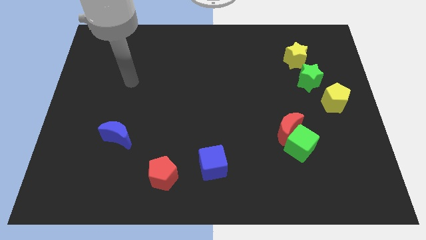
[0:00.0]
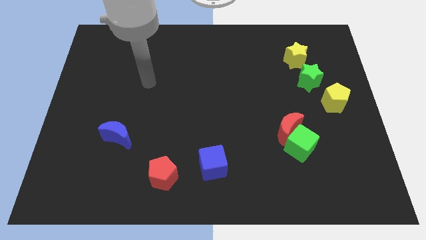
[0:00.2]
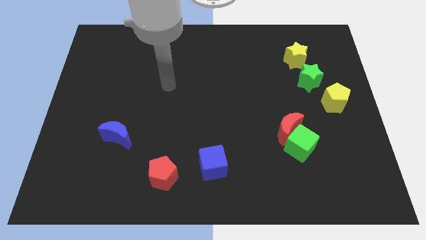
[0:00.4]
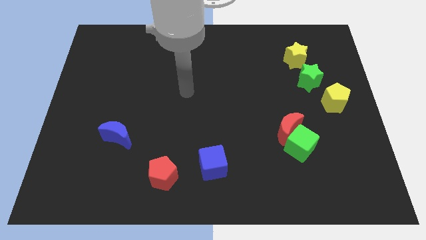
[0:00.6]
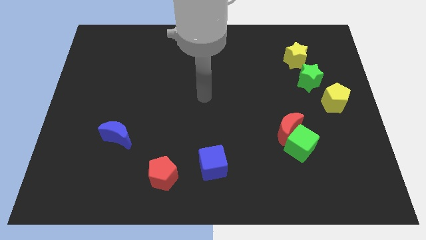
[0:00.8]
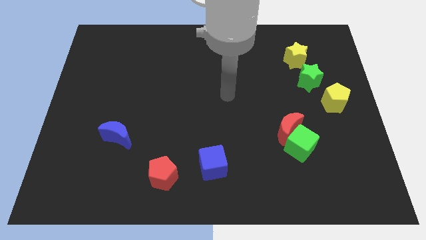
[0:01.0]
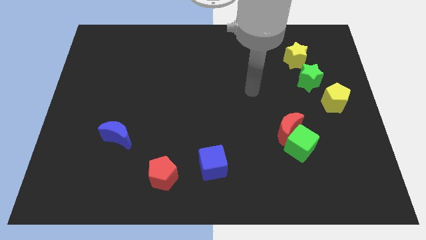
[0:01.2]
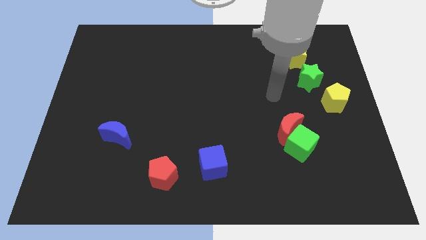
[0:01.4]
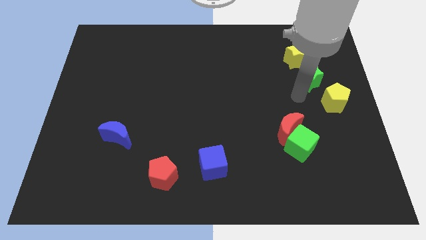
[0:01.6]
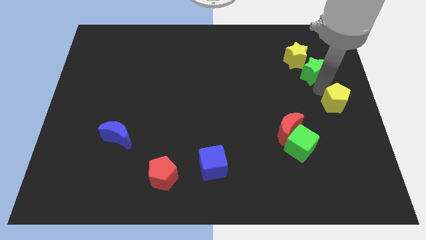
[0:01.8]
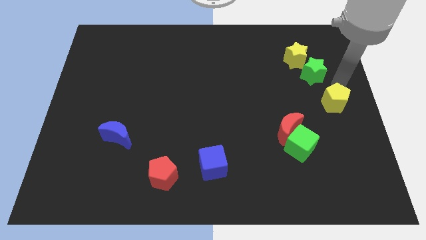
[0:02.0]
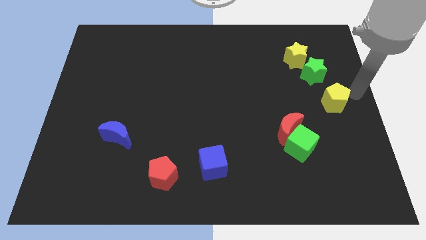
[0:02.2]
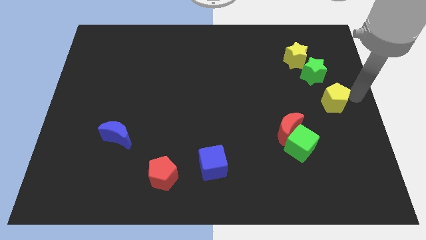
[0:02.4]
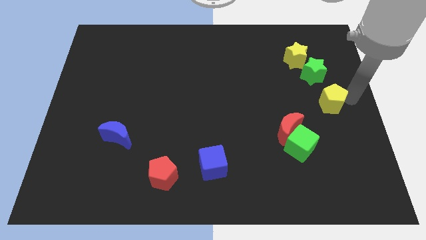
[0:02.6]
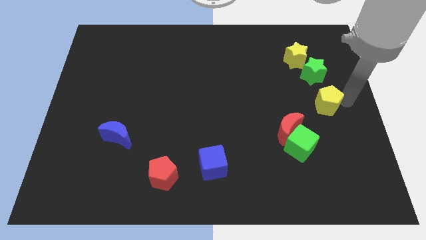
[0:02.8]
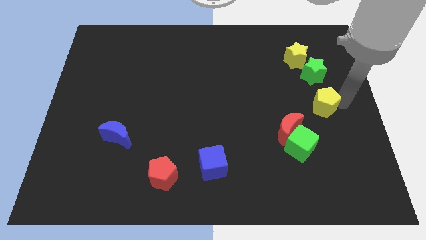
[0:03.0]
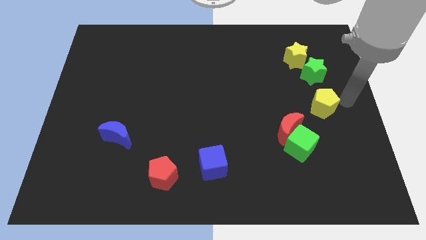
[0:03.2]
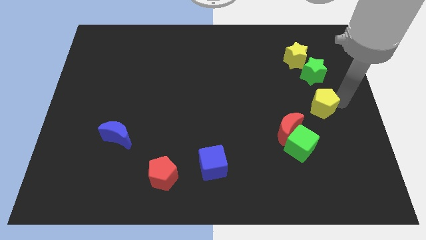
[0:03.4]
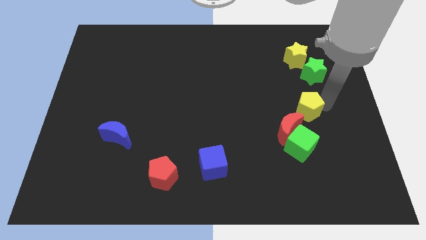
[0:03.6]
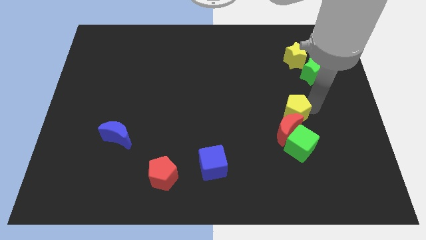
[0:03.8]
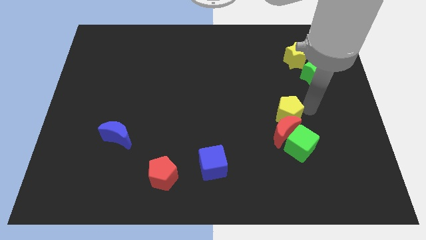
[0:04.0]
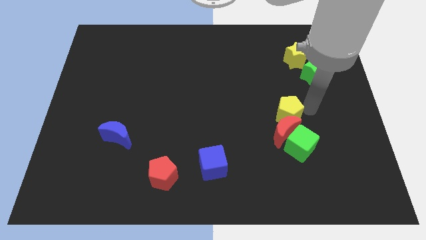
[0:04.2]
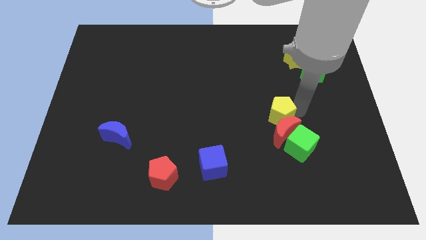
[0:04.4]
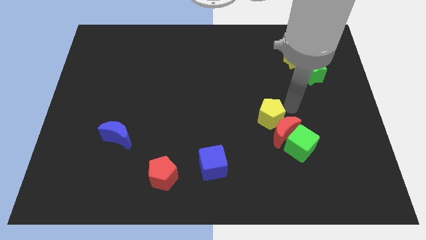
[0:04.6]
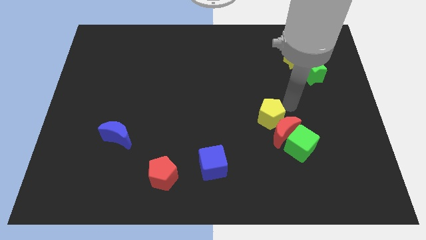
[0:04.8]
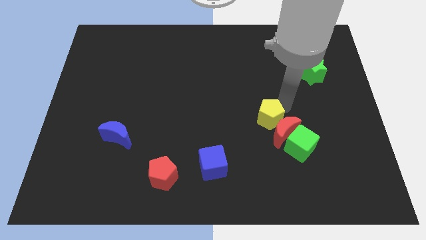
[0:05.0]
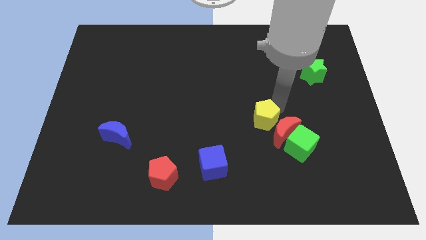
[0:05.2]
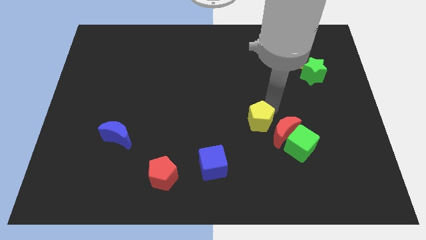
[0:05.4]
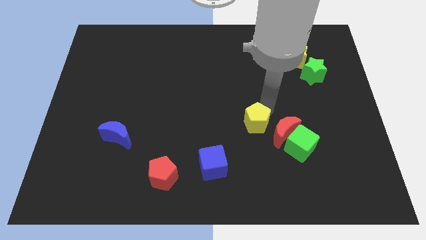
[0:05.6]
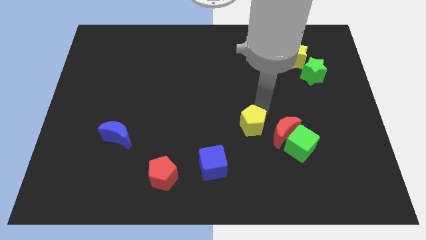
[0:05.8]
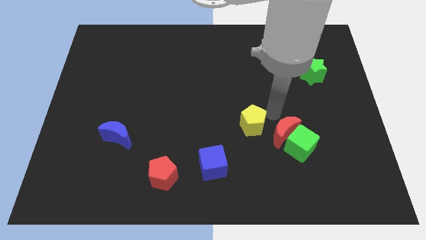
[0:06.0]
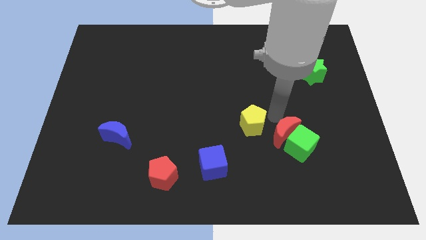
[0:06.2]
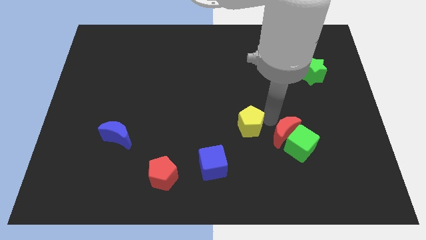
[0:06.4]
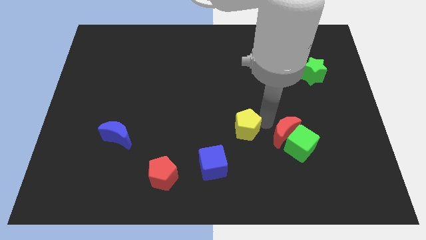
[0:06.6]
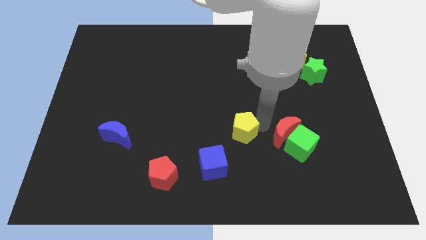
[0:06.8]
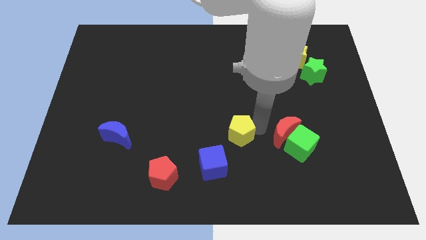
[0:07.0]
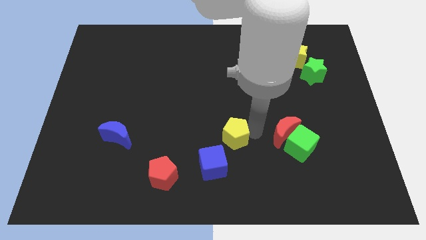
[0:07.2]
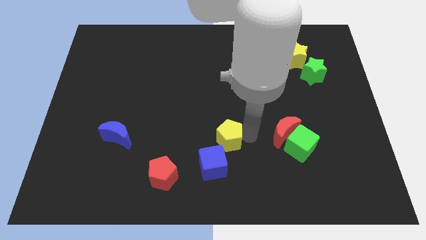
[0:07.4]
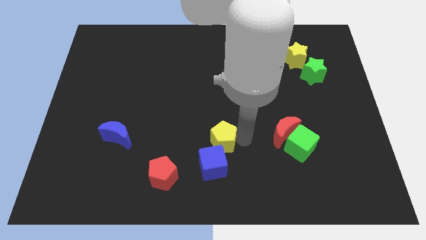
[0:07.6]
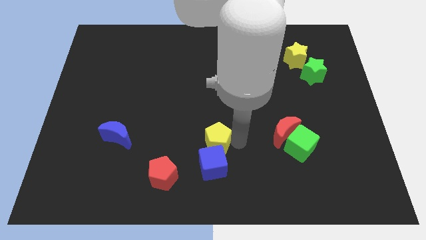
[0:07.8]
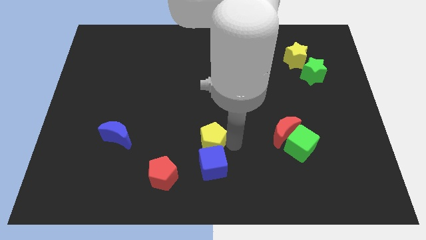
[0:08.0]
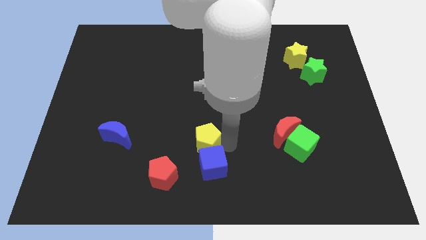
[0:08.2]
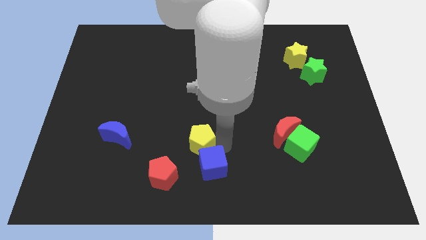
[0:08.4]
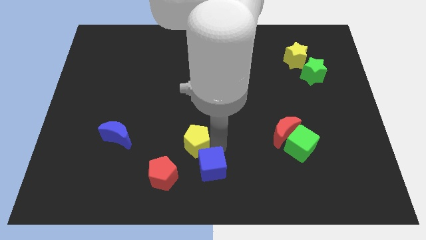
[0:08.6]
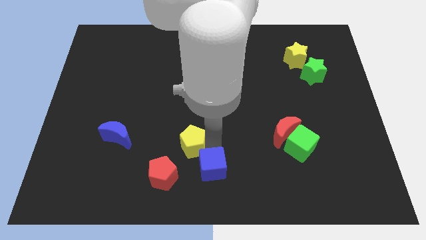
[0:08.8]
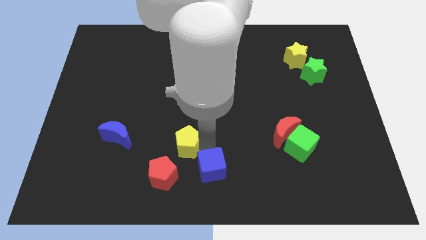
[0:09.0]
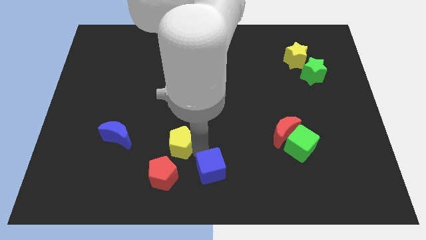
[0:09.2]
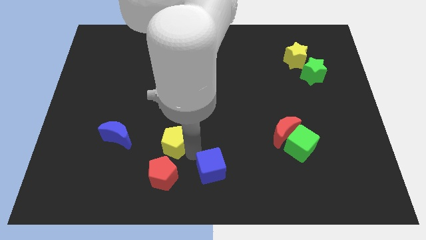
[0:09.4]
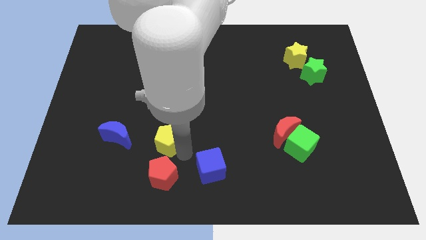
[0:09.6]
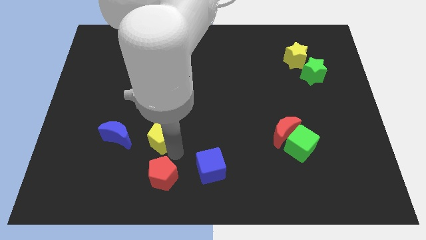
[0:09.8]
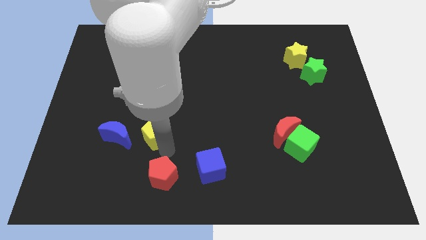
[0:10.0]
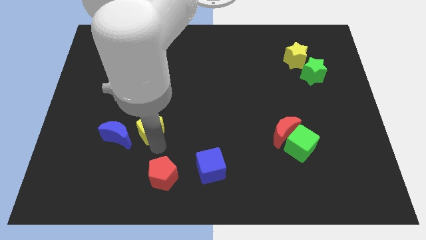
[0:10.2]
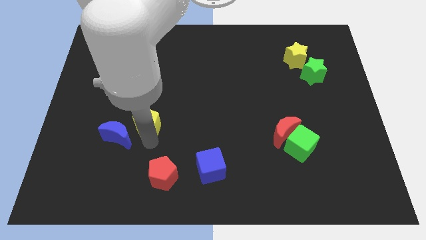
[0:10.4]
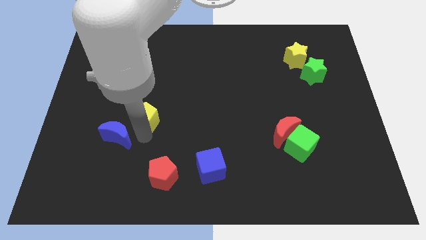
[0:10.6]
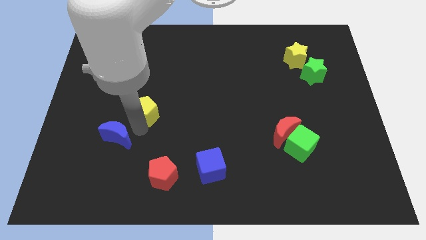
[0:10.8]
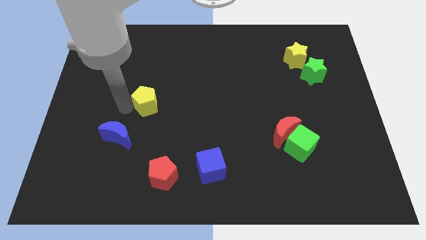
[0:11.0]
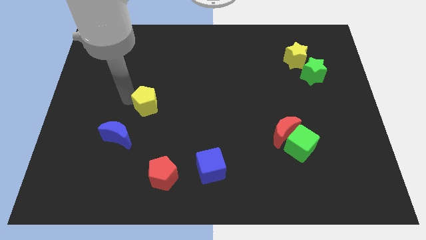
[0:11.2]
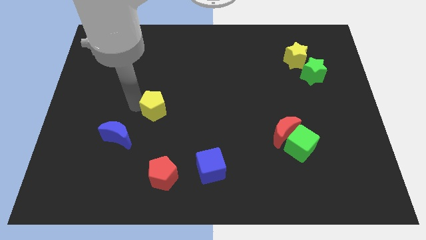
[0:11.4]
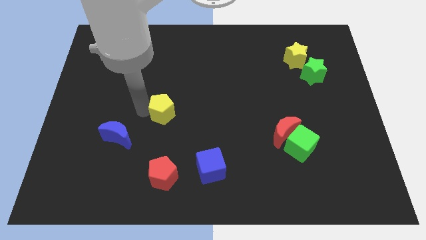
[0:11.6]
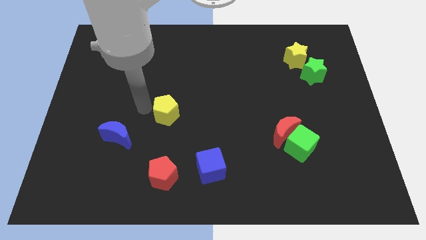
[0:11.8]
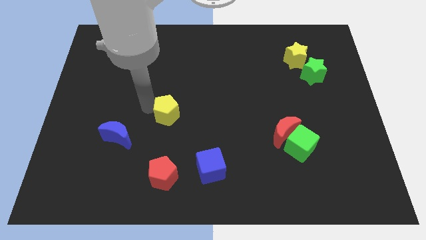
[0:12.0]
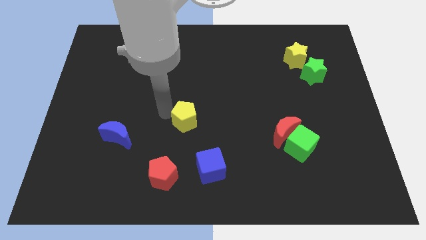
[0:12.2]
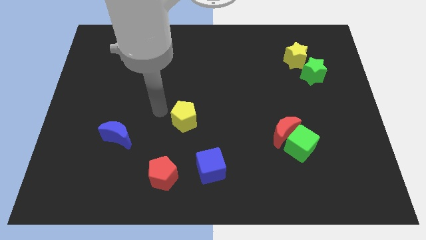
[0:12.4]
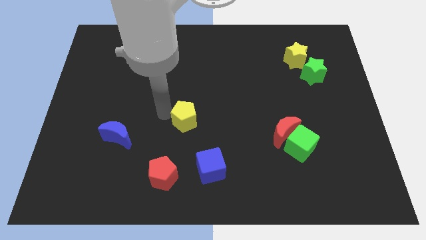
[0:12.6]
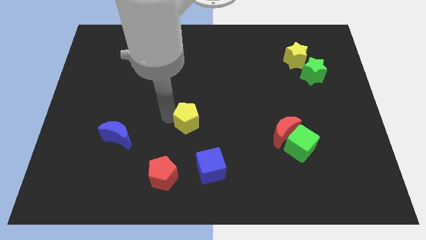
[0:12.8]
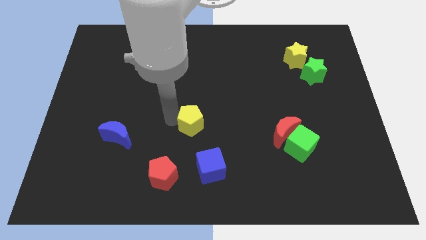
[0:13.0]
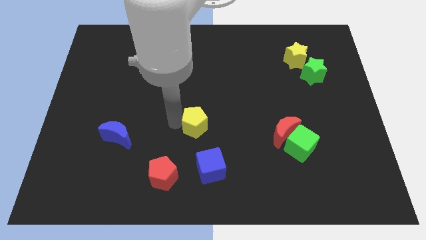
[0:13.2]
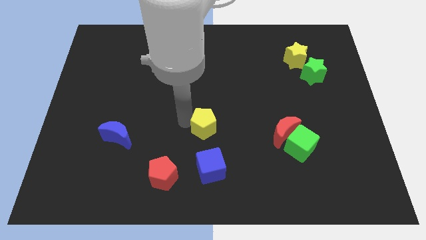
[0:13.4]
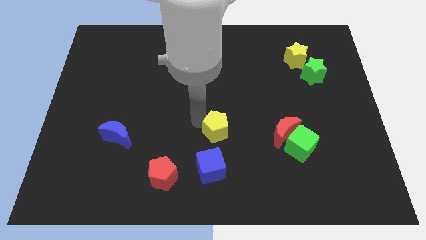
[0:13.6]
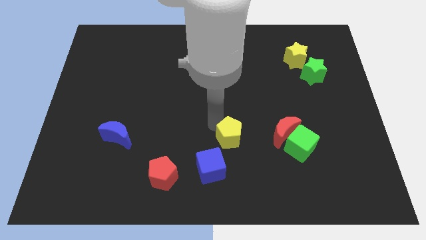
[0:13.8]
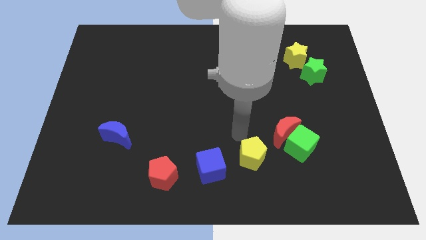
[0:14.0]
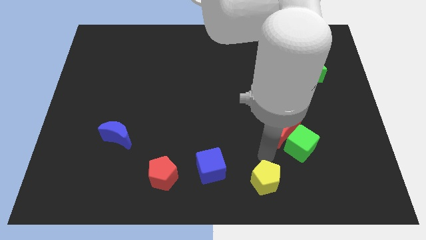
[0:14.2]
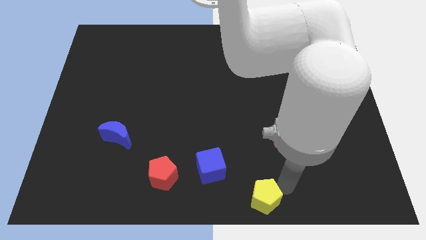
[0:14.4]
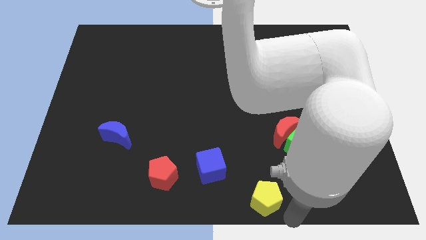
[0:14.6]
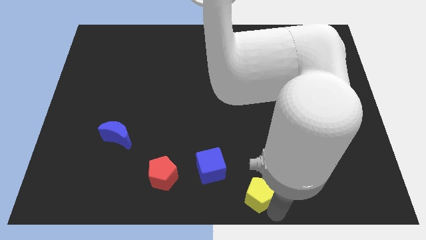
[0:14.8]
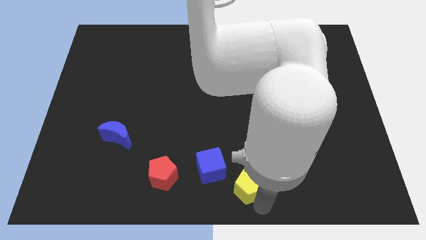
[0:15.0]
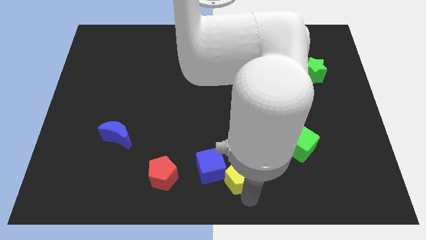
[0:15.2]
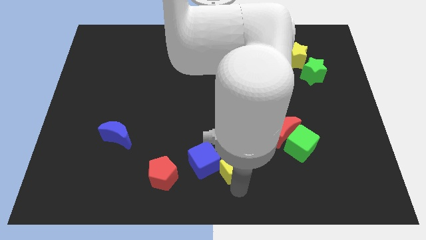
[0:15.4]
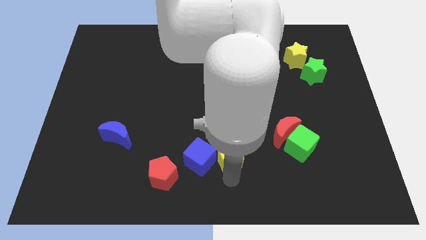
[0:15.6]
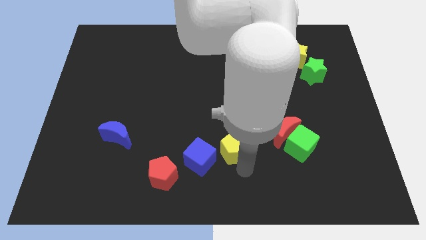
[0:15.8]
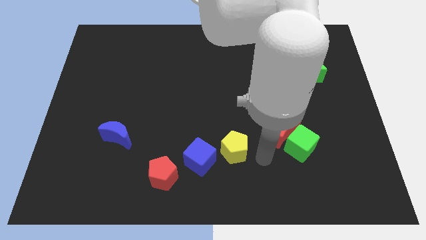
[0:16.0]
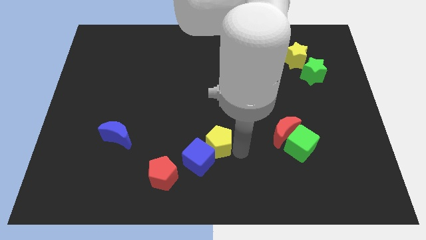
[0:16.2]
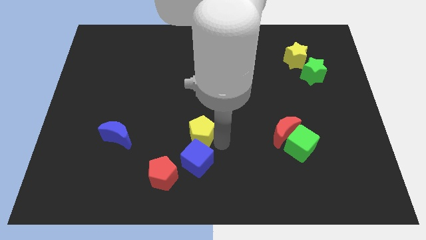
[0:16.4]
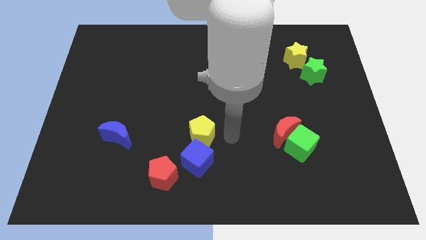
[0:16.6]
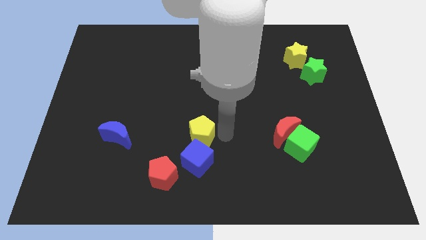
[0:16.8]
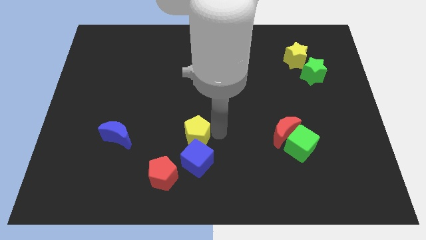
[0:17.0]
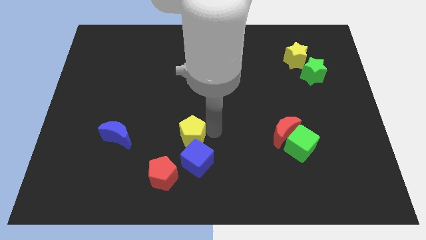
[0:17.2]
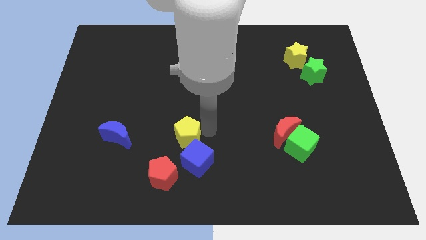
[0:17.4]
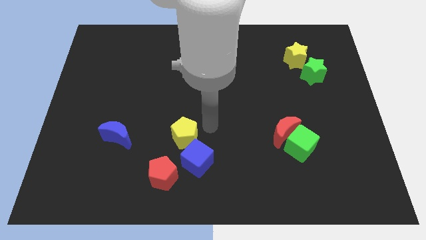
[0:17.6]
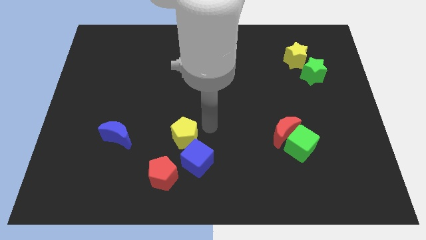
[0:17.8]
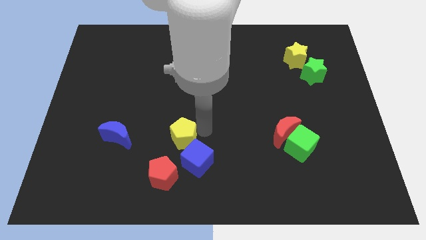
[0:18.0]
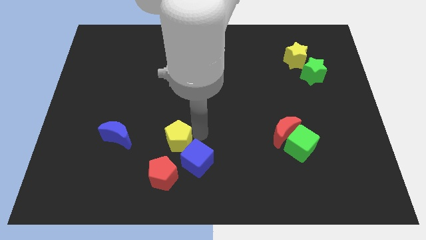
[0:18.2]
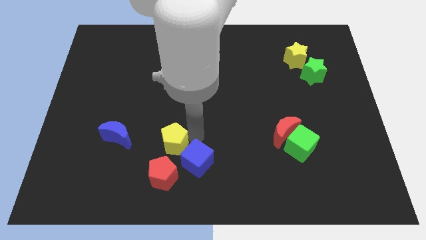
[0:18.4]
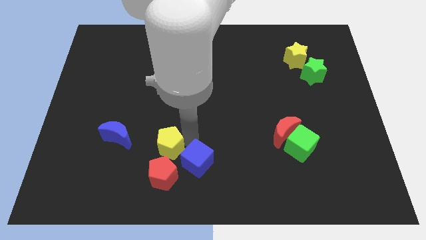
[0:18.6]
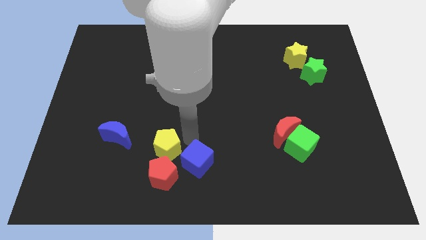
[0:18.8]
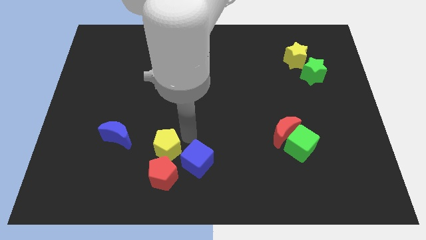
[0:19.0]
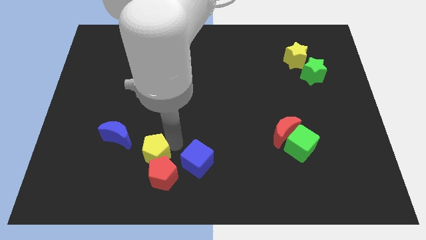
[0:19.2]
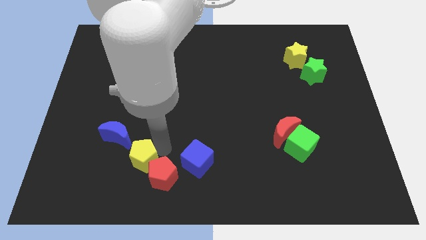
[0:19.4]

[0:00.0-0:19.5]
push the yellow pentagon left of the red pentagon
